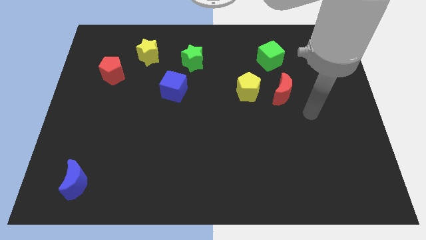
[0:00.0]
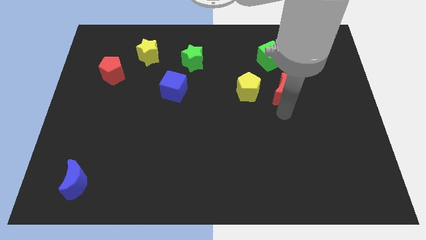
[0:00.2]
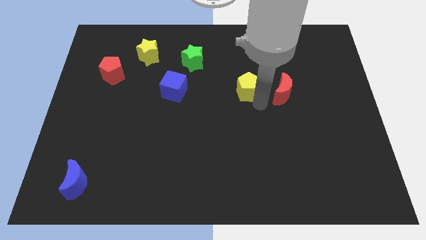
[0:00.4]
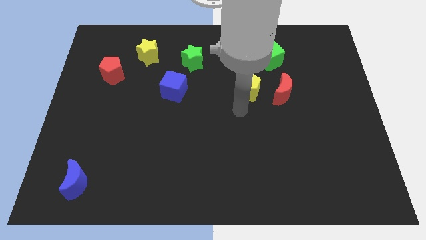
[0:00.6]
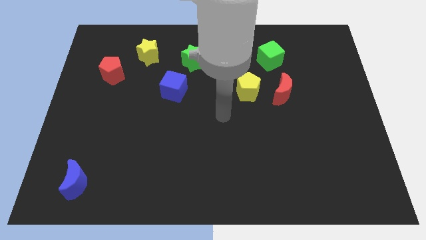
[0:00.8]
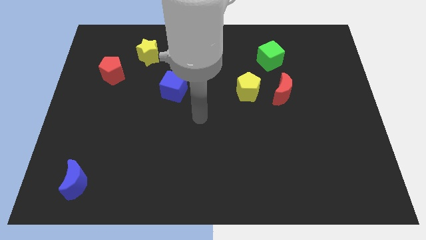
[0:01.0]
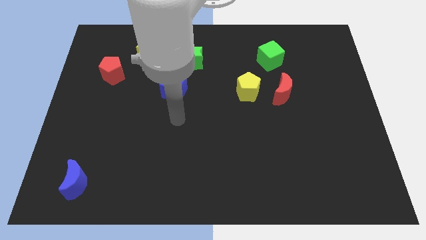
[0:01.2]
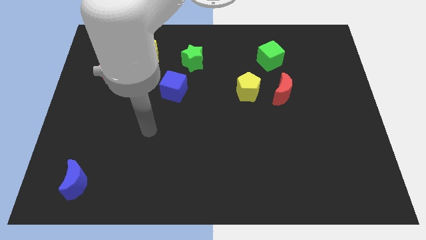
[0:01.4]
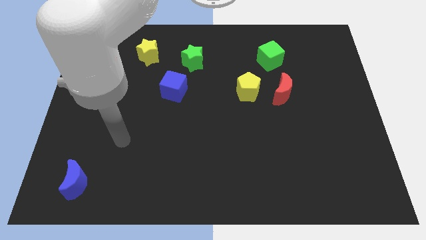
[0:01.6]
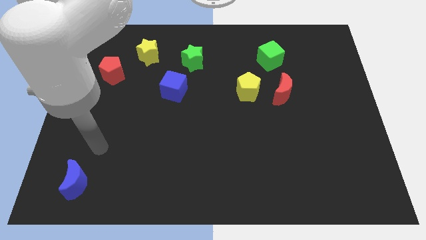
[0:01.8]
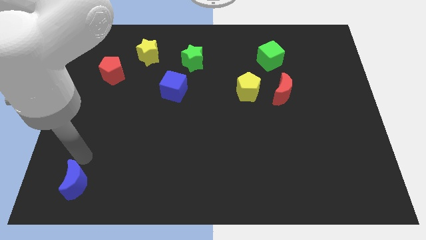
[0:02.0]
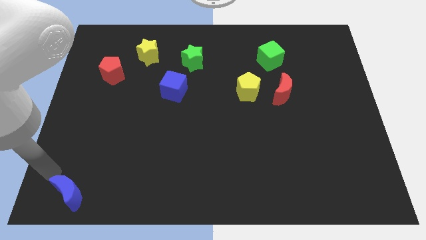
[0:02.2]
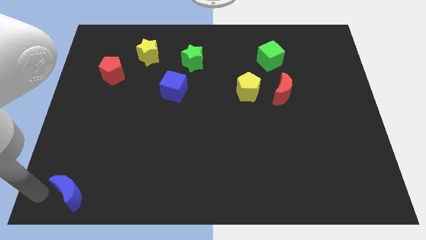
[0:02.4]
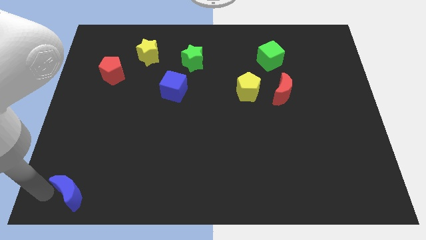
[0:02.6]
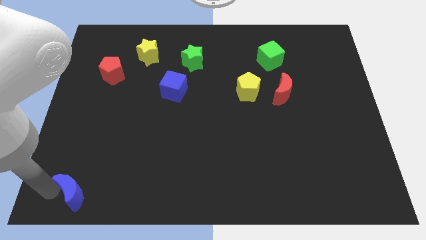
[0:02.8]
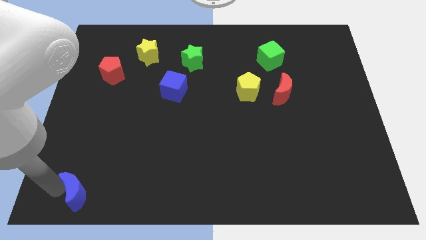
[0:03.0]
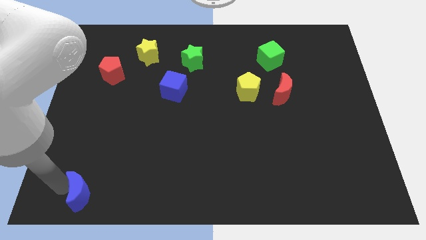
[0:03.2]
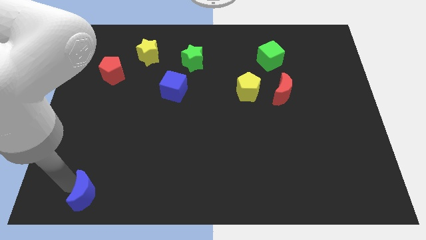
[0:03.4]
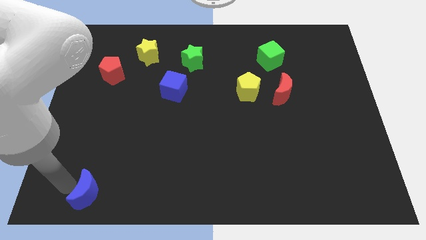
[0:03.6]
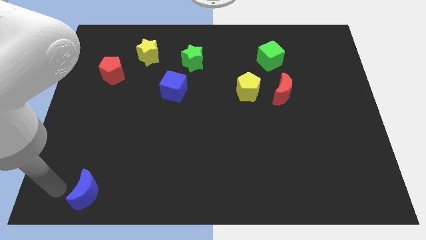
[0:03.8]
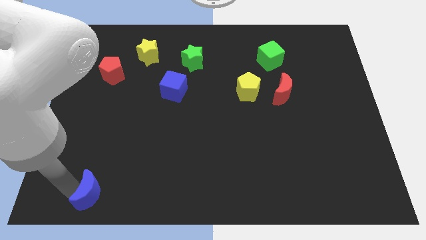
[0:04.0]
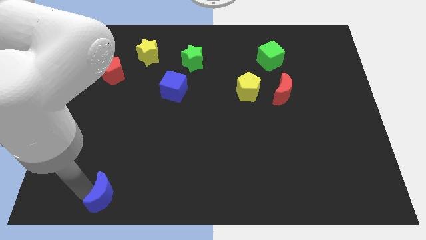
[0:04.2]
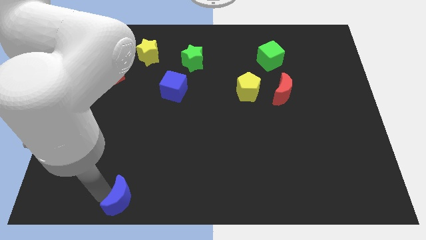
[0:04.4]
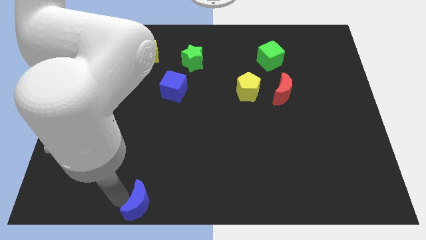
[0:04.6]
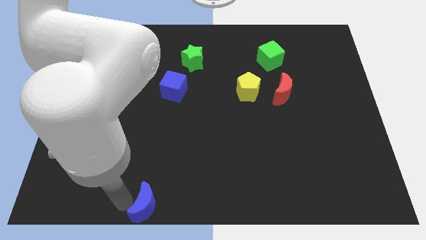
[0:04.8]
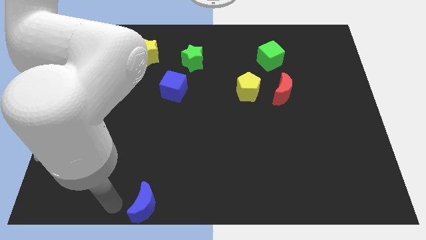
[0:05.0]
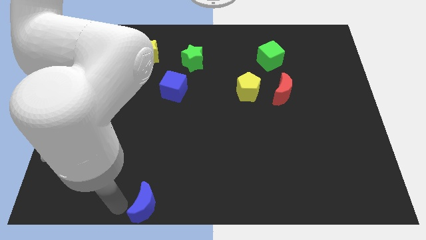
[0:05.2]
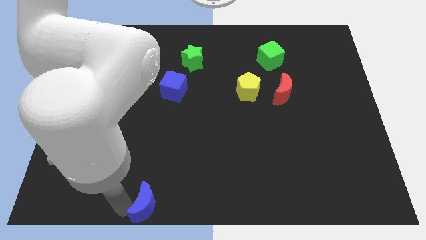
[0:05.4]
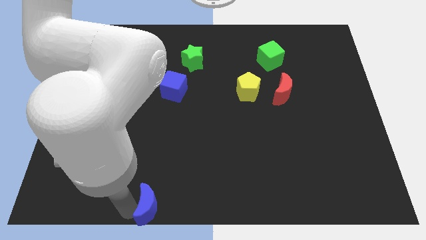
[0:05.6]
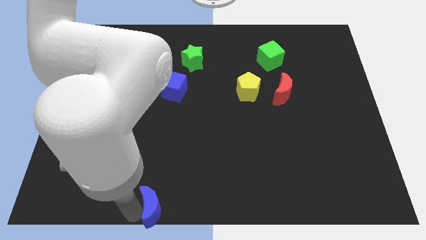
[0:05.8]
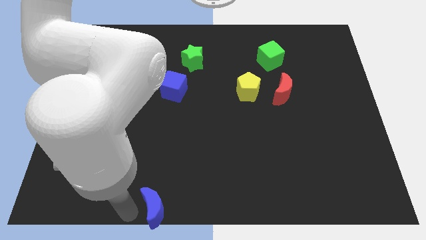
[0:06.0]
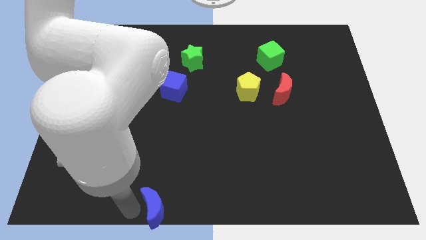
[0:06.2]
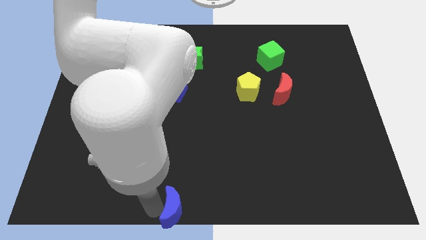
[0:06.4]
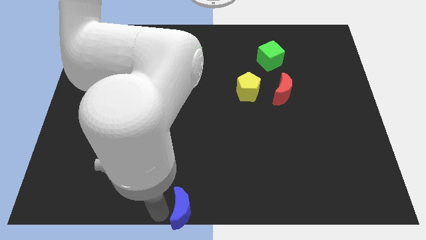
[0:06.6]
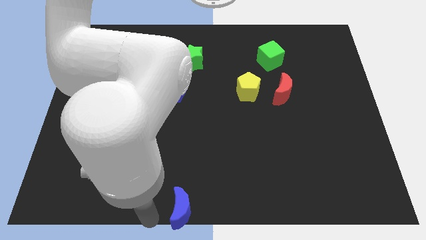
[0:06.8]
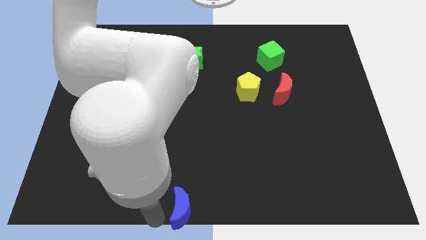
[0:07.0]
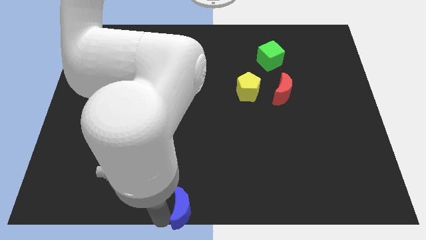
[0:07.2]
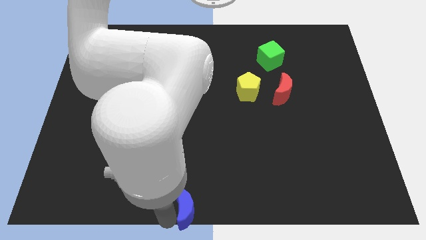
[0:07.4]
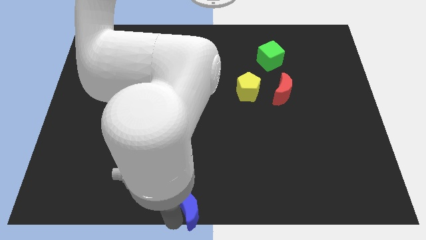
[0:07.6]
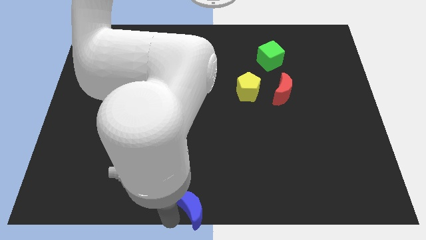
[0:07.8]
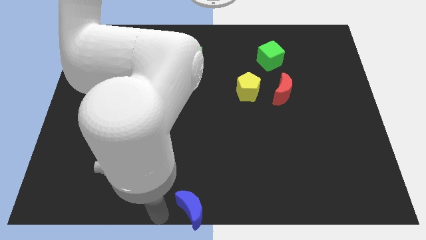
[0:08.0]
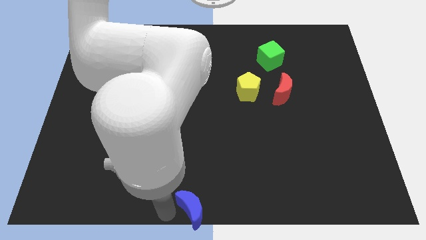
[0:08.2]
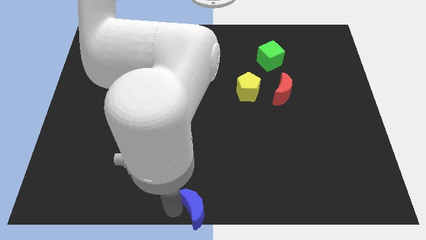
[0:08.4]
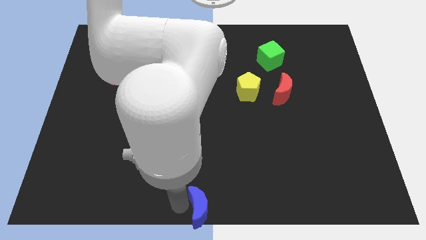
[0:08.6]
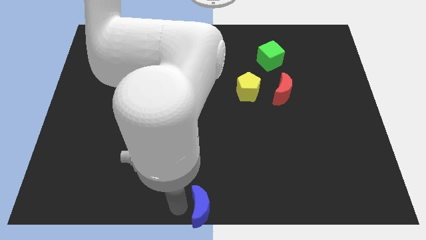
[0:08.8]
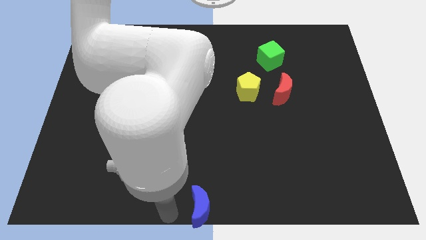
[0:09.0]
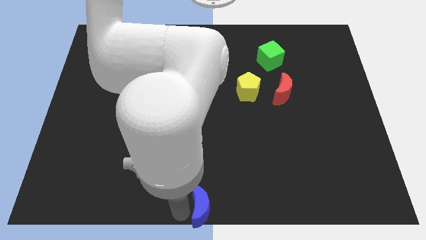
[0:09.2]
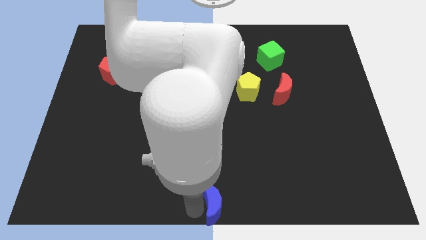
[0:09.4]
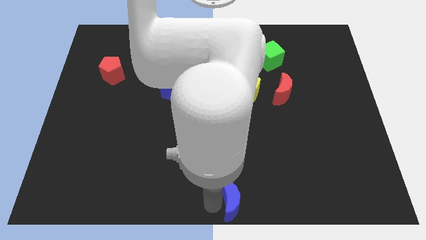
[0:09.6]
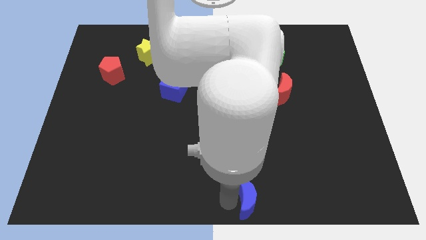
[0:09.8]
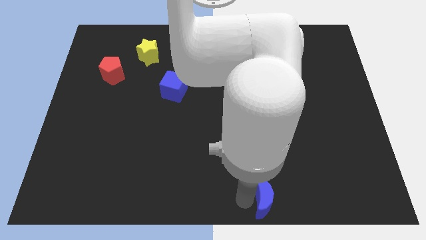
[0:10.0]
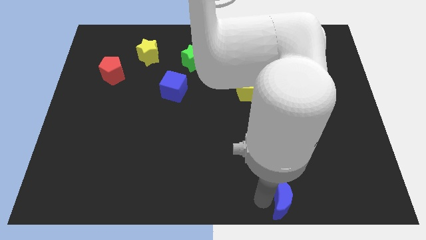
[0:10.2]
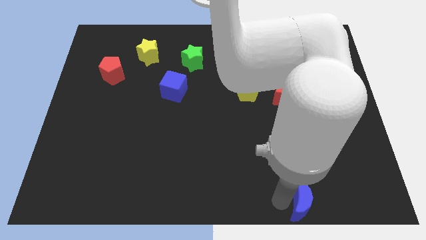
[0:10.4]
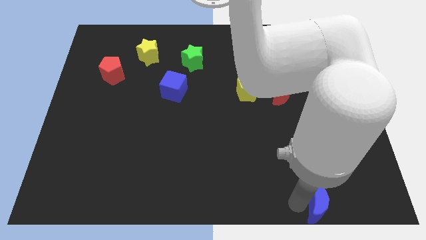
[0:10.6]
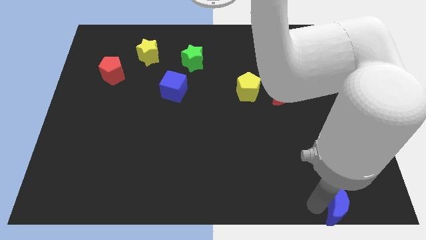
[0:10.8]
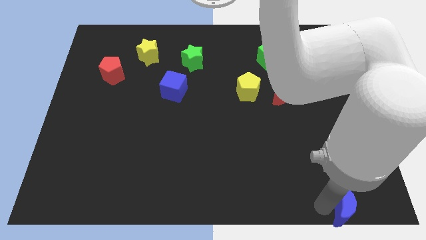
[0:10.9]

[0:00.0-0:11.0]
put the blue moon to the lower right corner

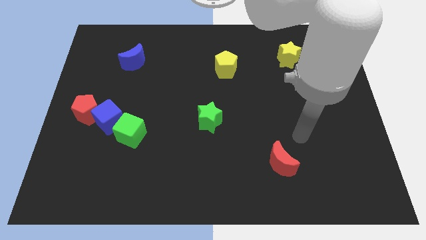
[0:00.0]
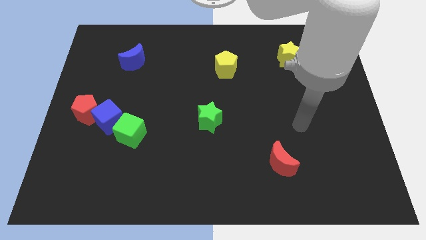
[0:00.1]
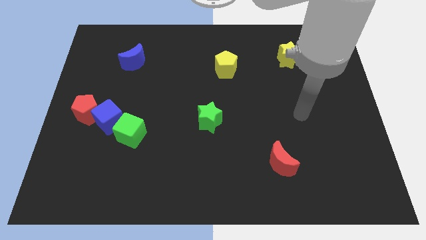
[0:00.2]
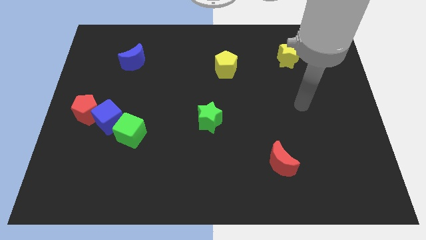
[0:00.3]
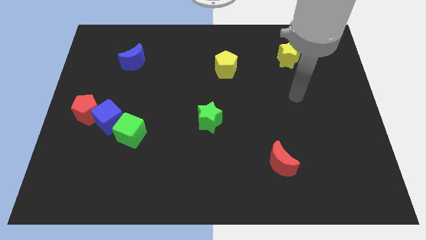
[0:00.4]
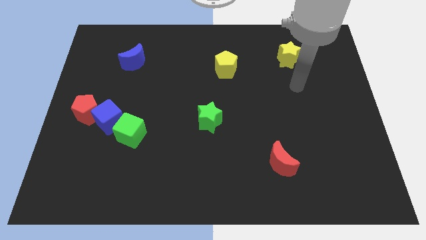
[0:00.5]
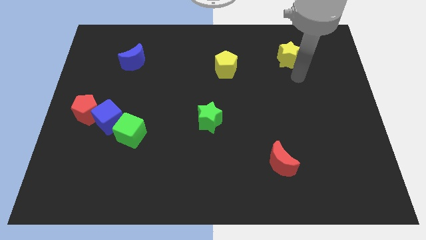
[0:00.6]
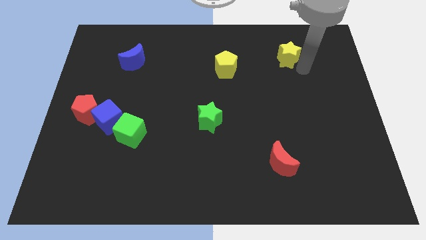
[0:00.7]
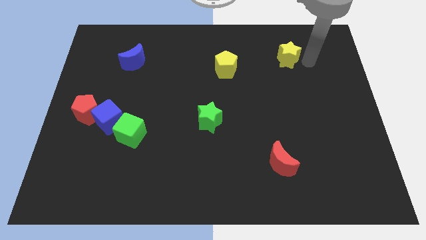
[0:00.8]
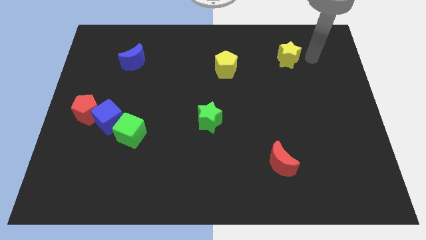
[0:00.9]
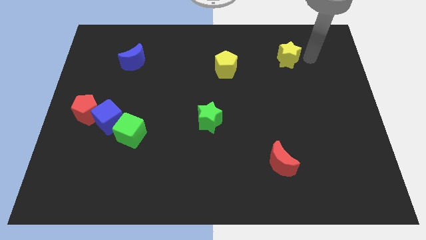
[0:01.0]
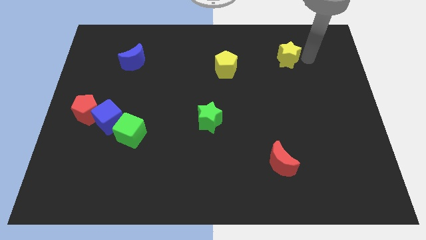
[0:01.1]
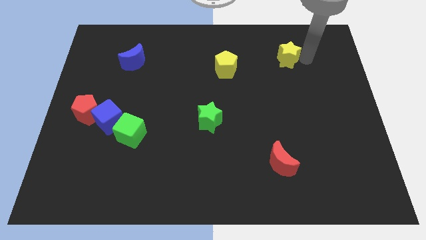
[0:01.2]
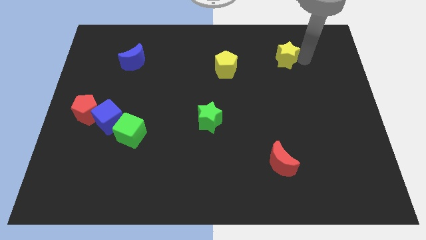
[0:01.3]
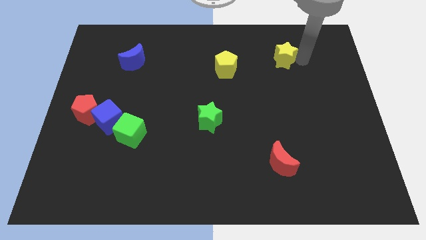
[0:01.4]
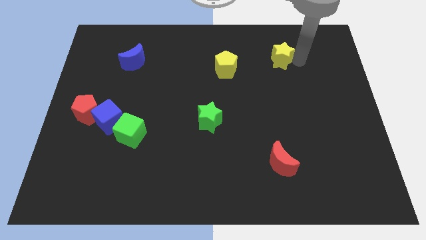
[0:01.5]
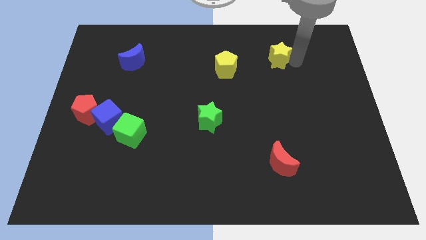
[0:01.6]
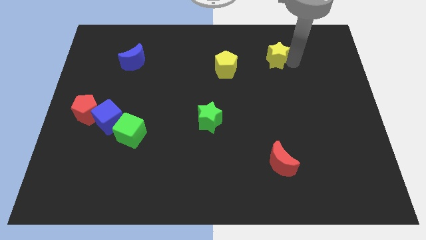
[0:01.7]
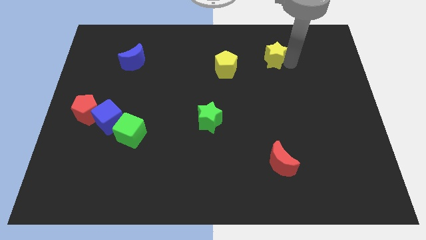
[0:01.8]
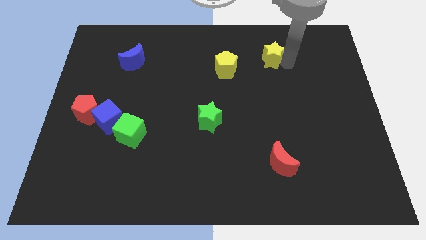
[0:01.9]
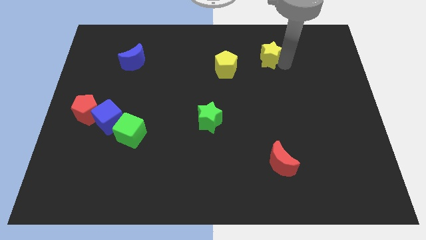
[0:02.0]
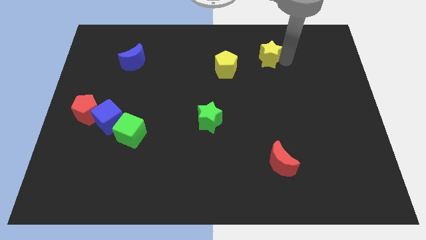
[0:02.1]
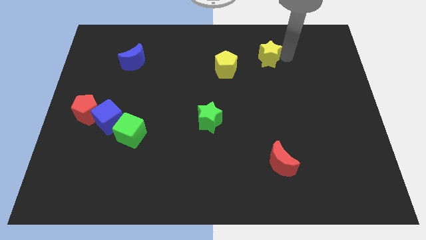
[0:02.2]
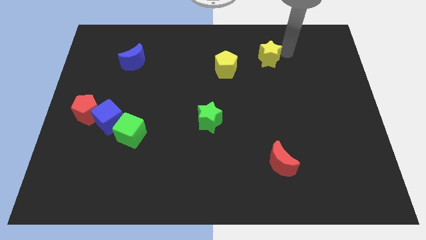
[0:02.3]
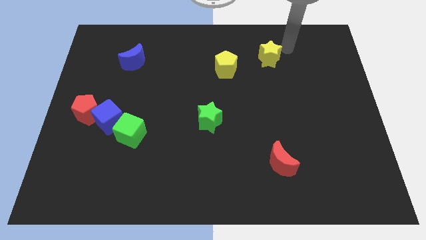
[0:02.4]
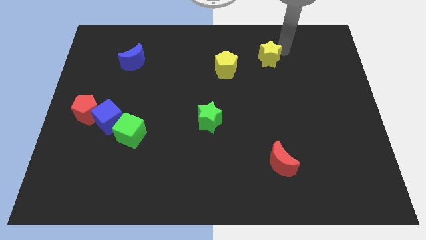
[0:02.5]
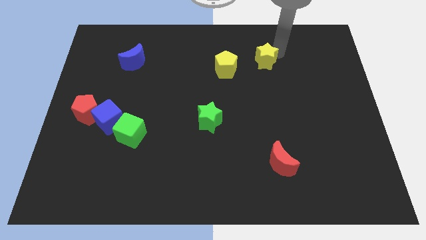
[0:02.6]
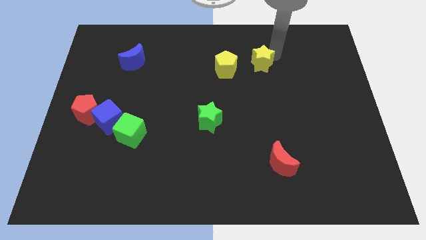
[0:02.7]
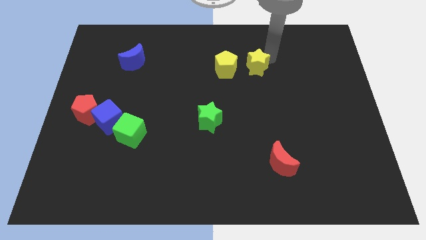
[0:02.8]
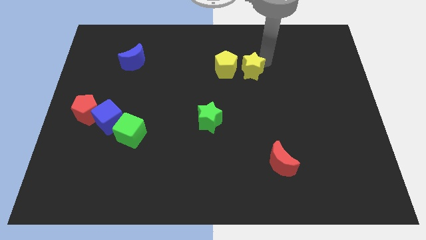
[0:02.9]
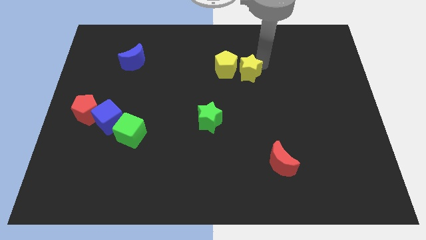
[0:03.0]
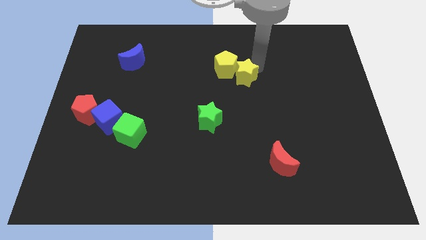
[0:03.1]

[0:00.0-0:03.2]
slide the yellow star to the middle
